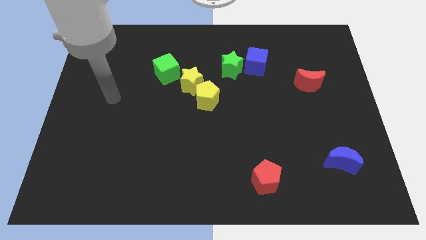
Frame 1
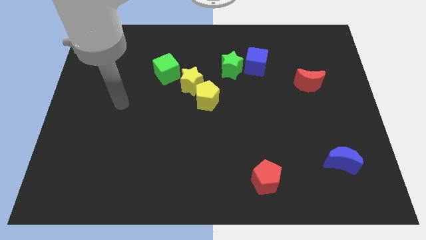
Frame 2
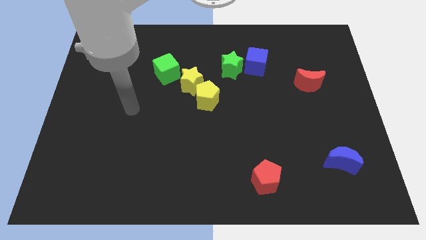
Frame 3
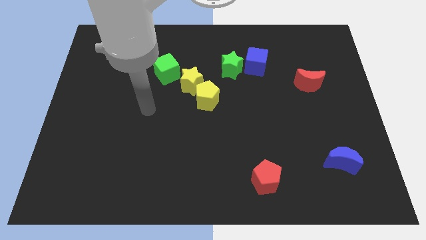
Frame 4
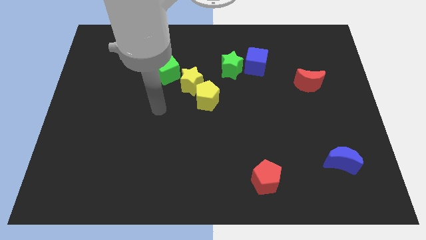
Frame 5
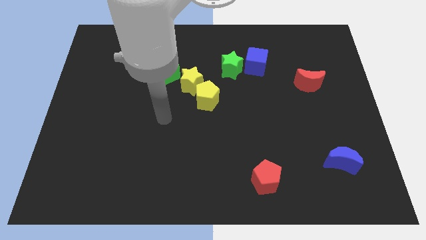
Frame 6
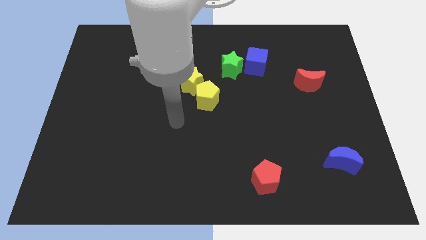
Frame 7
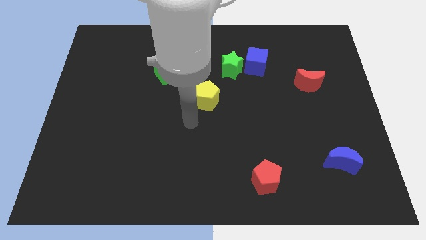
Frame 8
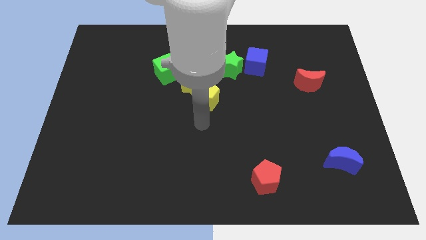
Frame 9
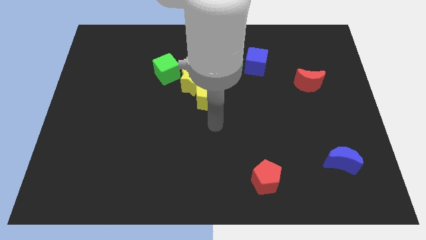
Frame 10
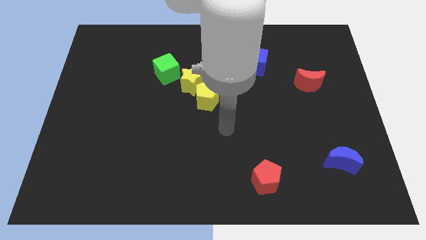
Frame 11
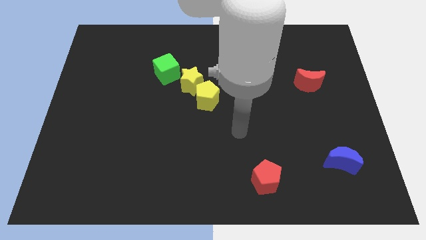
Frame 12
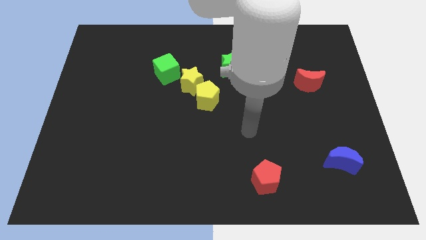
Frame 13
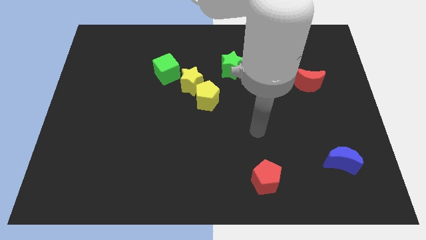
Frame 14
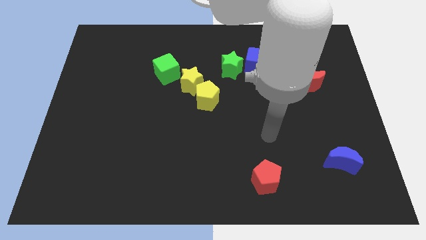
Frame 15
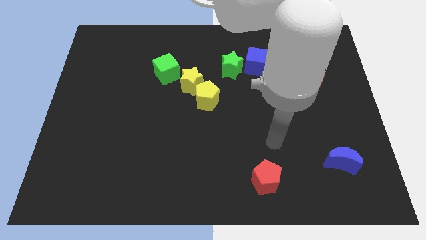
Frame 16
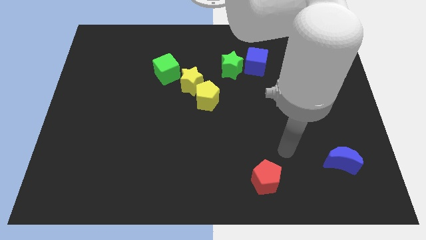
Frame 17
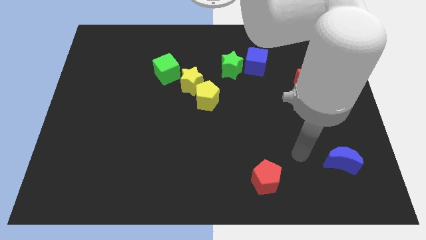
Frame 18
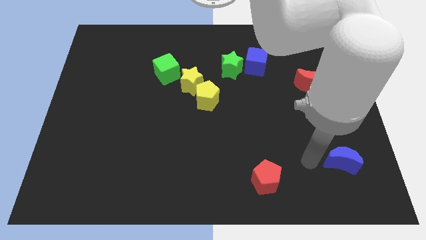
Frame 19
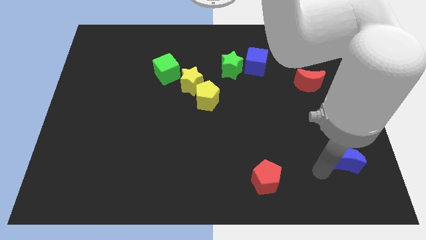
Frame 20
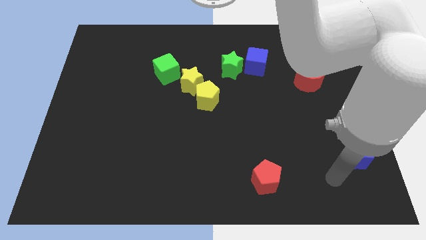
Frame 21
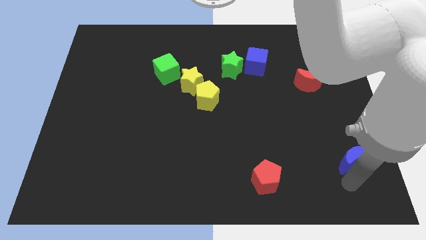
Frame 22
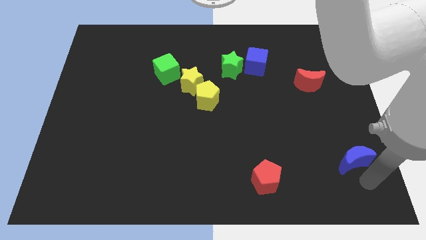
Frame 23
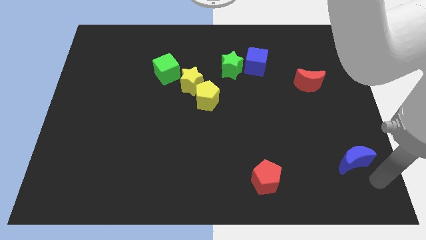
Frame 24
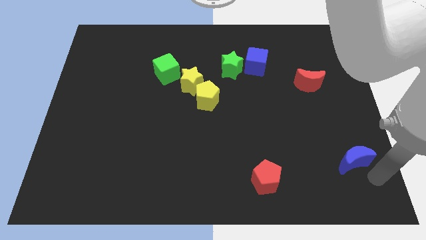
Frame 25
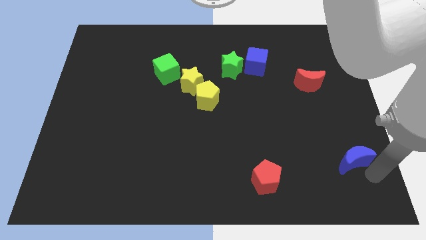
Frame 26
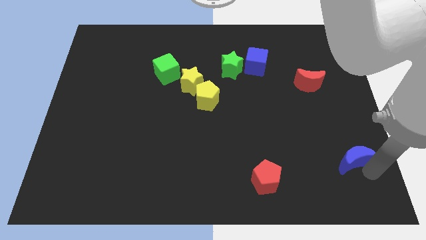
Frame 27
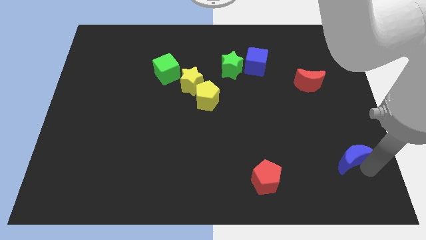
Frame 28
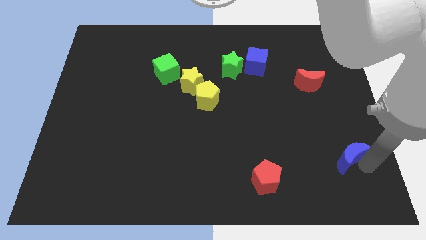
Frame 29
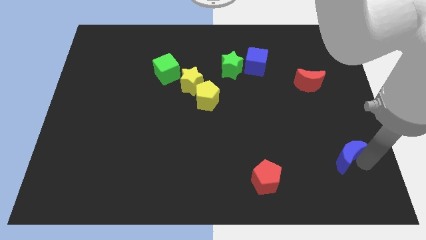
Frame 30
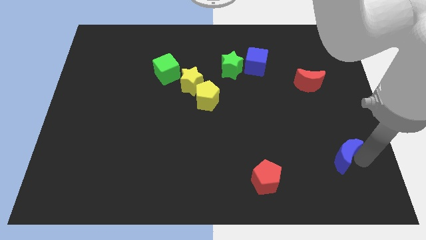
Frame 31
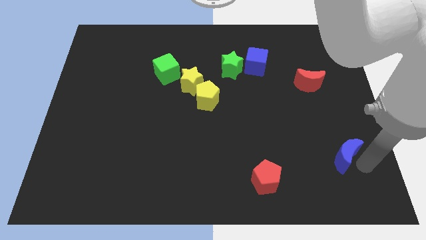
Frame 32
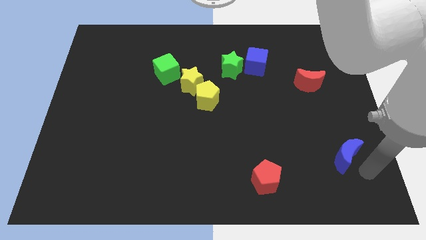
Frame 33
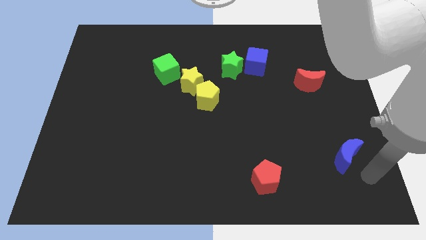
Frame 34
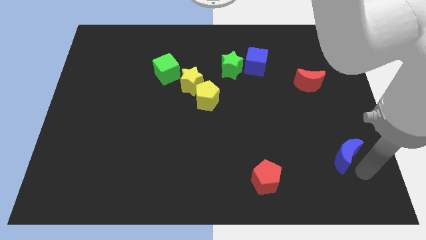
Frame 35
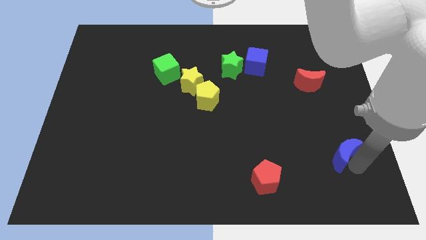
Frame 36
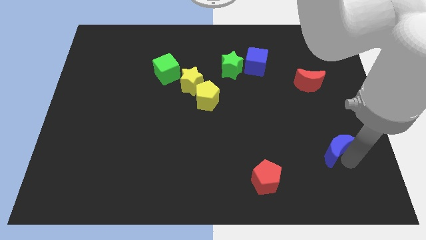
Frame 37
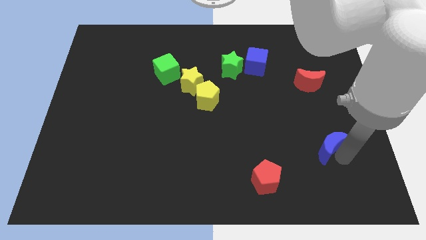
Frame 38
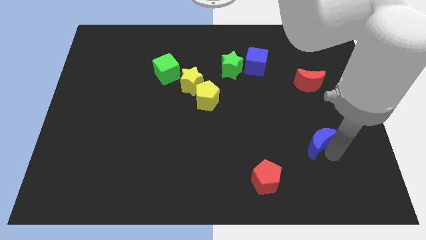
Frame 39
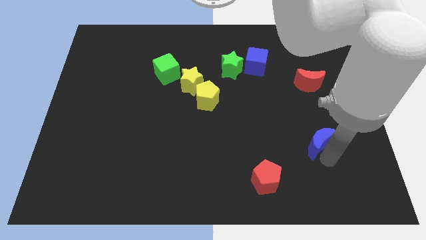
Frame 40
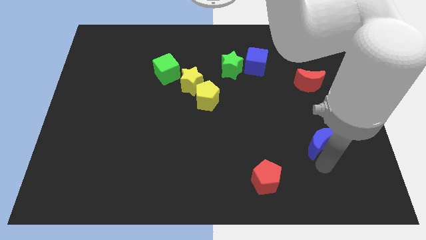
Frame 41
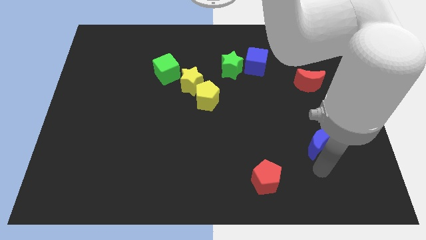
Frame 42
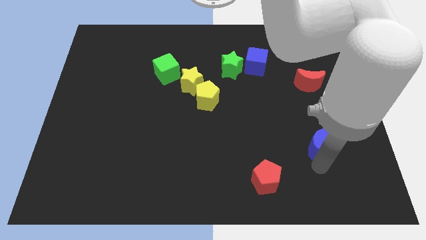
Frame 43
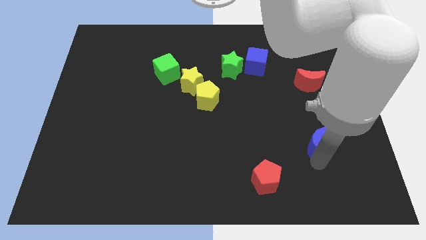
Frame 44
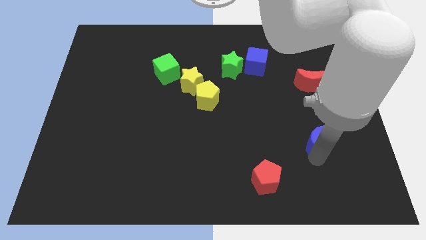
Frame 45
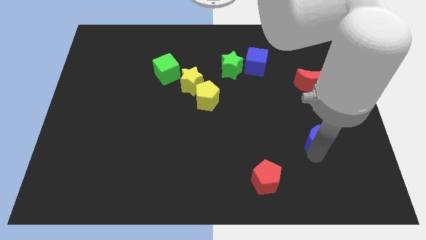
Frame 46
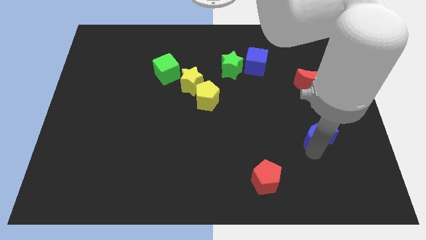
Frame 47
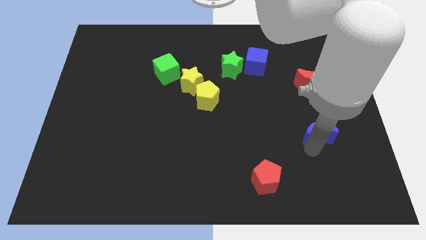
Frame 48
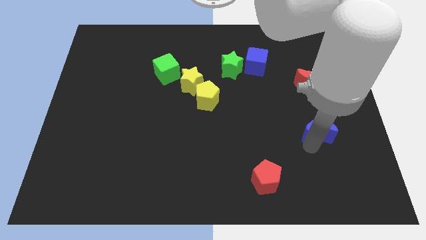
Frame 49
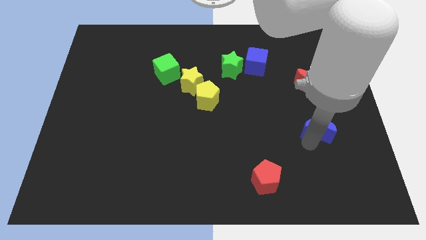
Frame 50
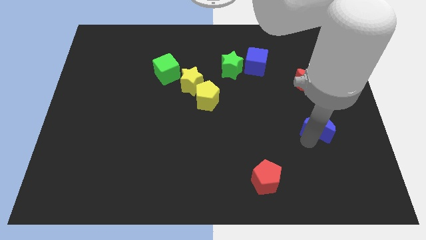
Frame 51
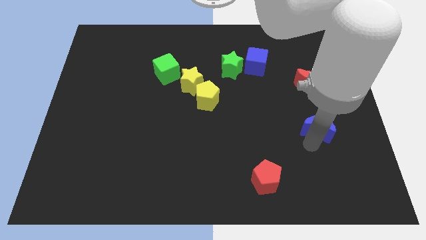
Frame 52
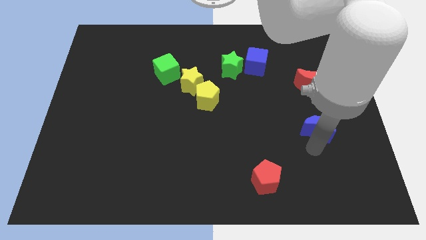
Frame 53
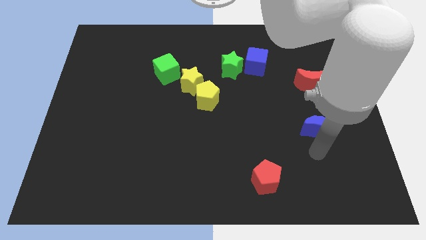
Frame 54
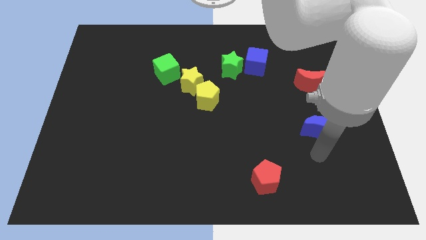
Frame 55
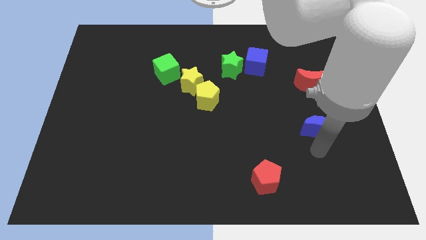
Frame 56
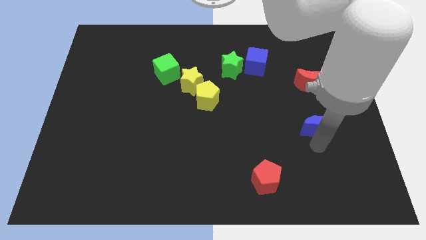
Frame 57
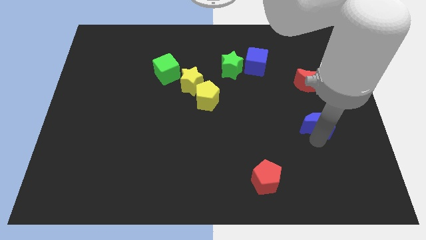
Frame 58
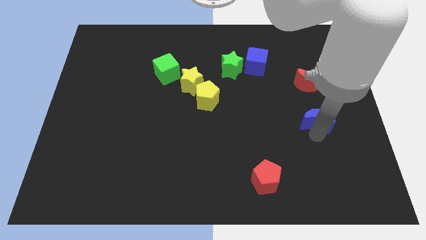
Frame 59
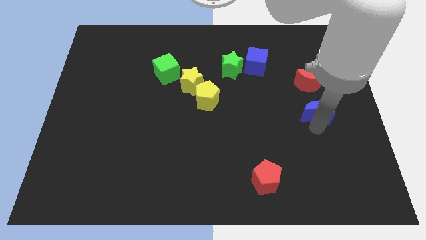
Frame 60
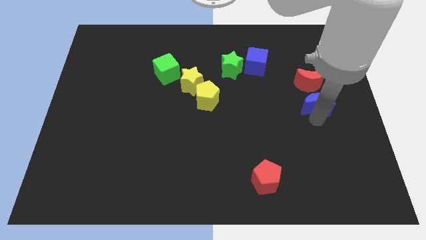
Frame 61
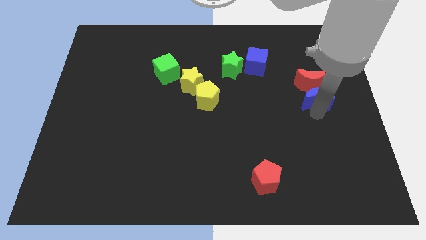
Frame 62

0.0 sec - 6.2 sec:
put the blue moon to the red moon

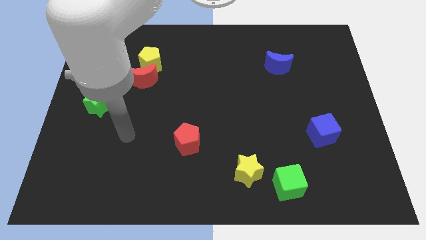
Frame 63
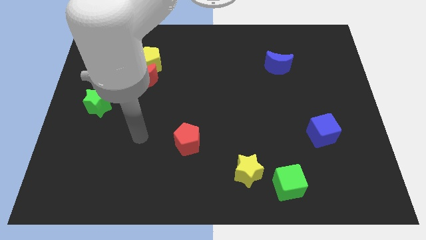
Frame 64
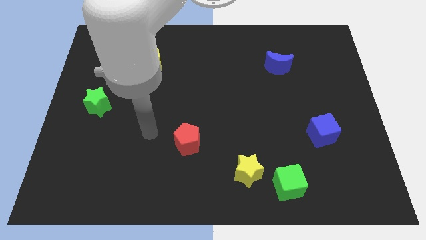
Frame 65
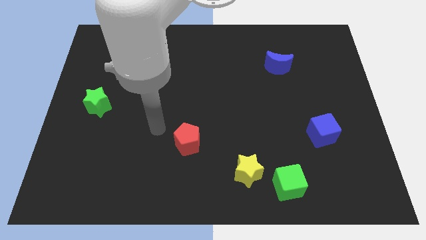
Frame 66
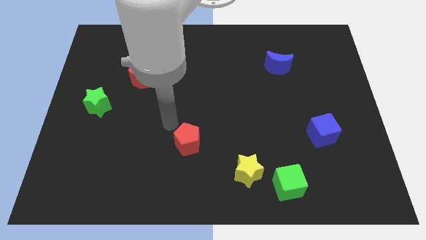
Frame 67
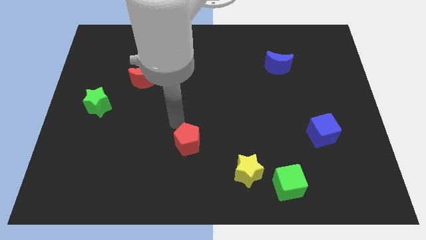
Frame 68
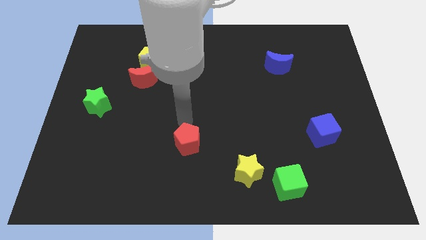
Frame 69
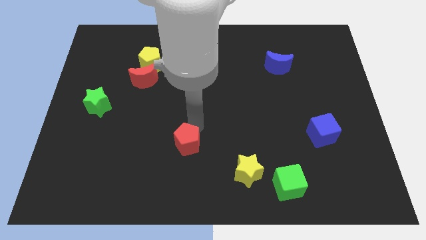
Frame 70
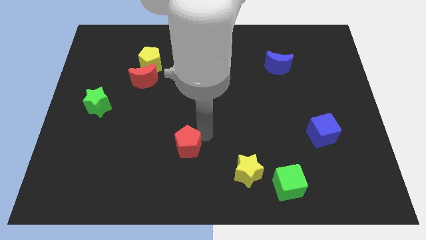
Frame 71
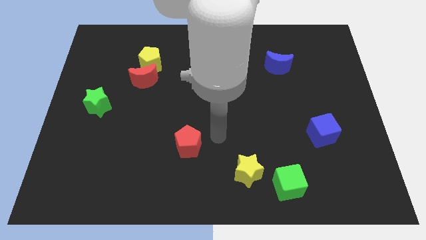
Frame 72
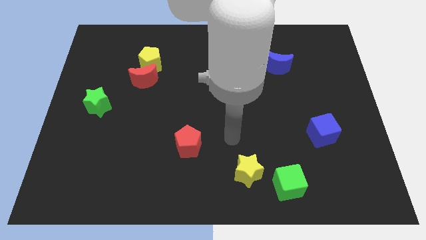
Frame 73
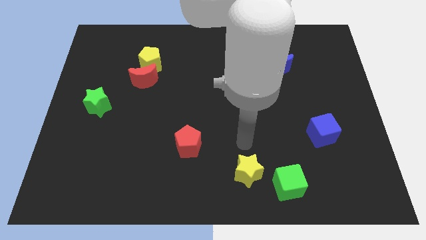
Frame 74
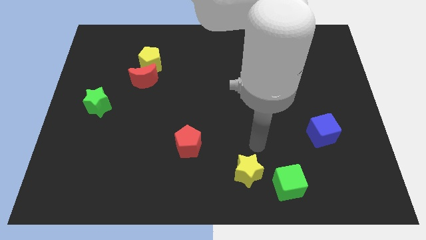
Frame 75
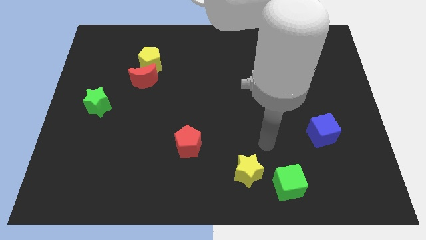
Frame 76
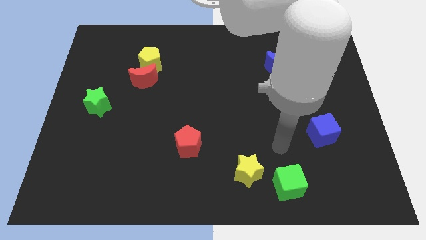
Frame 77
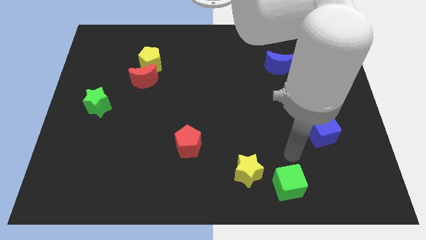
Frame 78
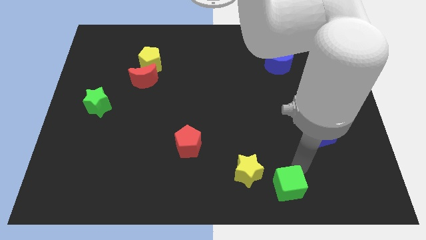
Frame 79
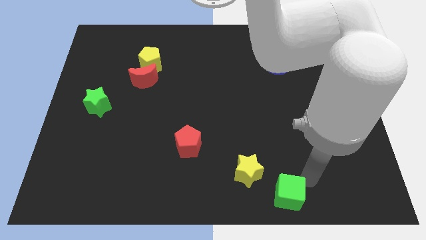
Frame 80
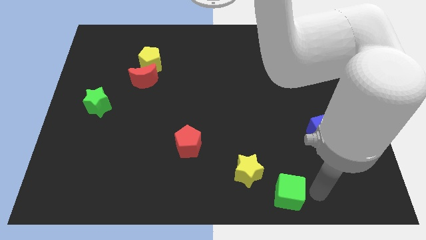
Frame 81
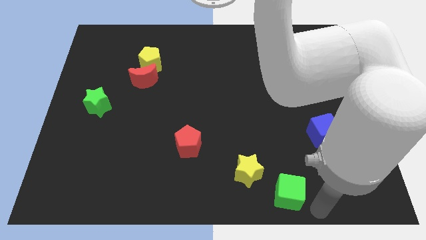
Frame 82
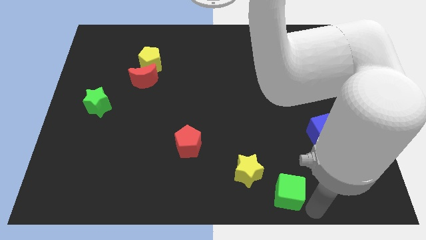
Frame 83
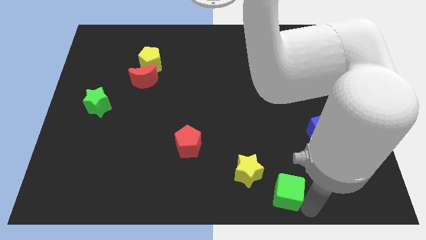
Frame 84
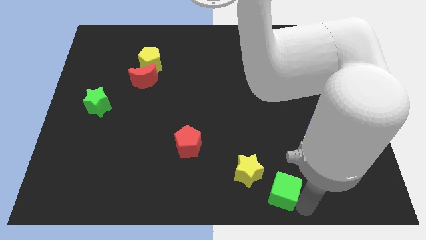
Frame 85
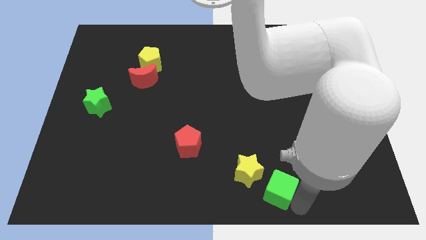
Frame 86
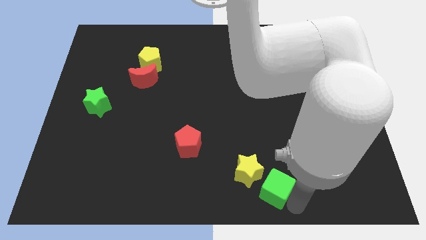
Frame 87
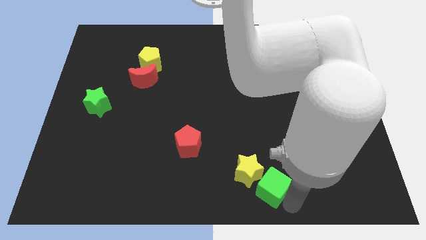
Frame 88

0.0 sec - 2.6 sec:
put the green cube next to the yellow star
